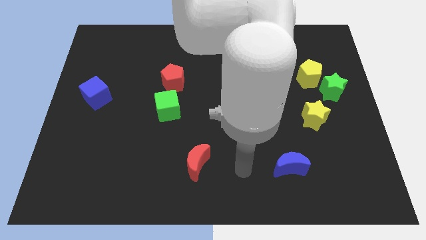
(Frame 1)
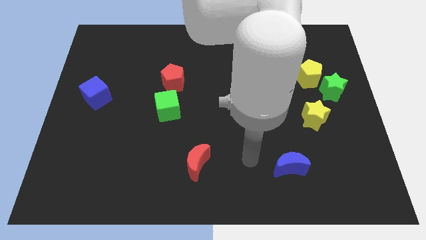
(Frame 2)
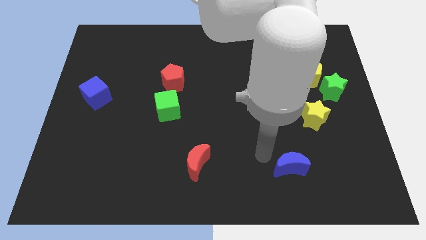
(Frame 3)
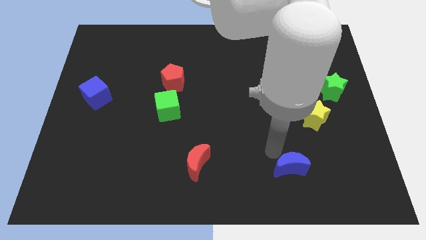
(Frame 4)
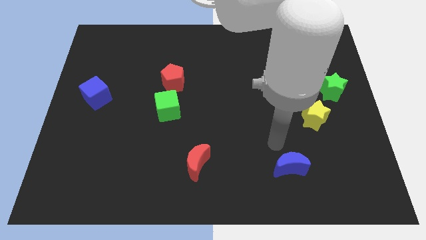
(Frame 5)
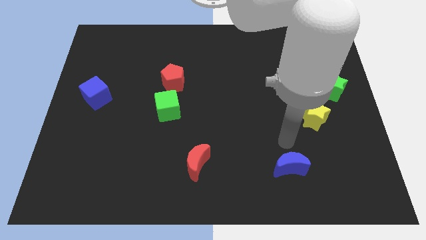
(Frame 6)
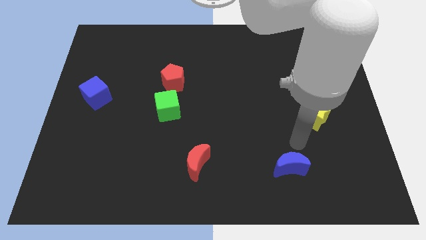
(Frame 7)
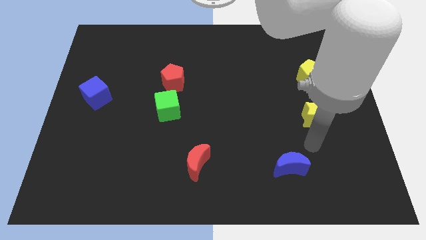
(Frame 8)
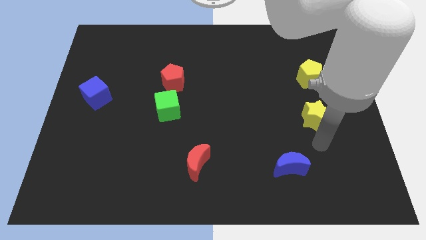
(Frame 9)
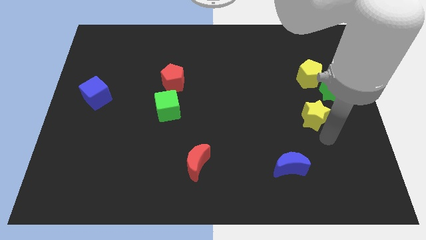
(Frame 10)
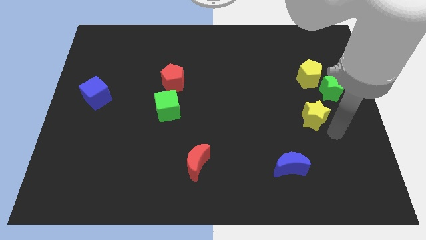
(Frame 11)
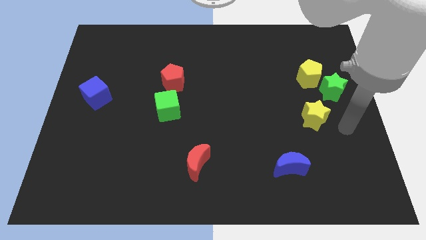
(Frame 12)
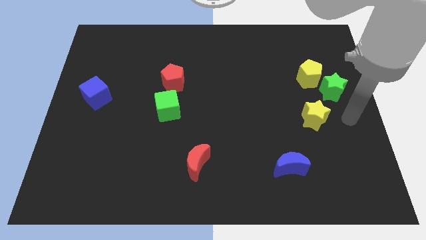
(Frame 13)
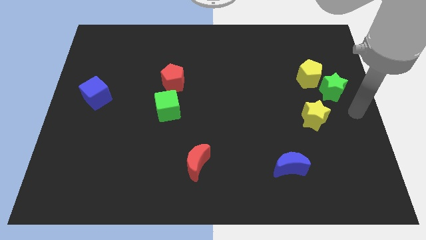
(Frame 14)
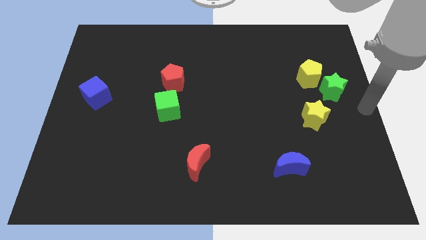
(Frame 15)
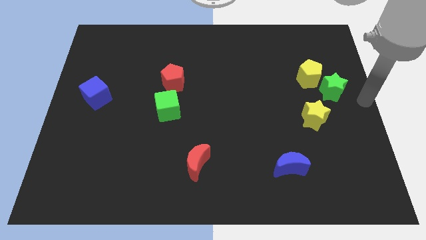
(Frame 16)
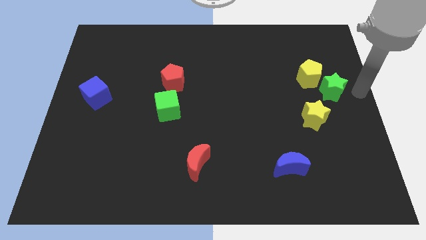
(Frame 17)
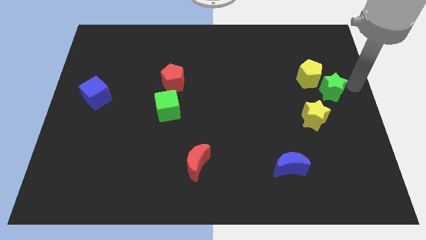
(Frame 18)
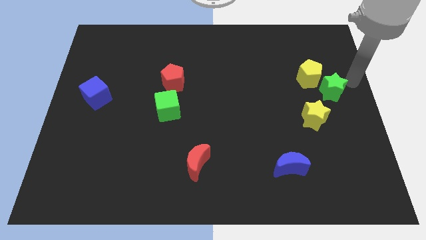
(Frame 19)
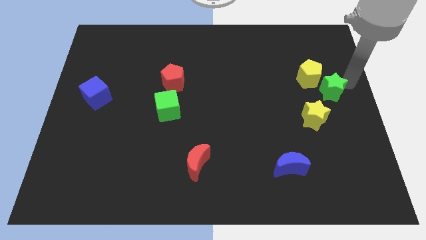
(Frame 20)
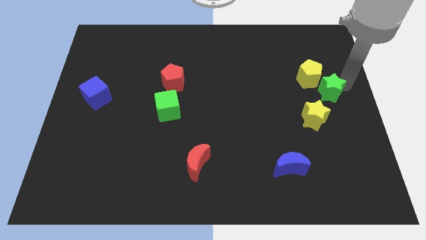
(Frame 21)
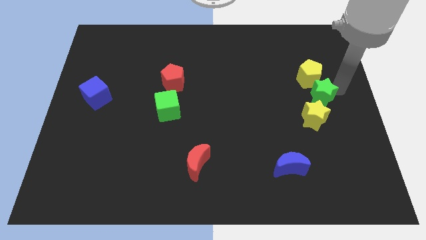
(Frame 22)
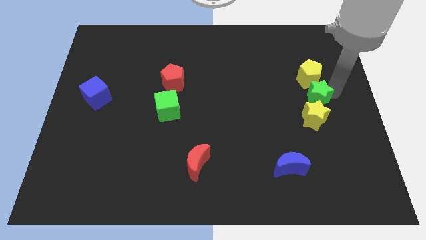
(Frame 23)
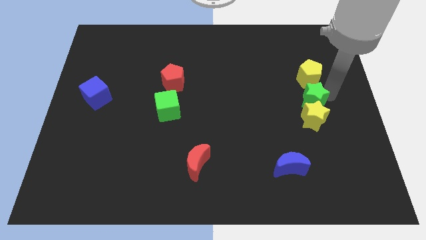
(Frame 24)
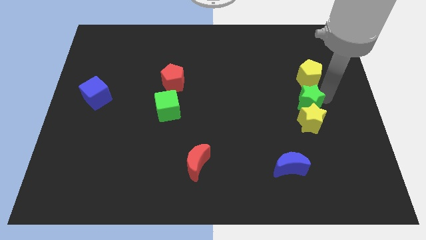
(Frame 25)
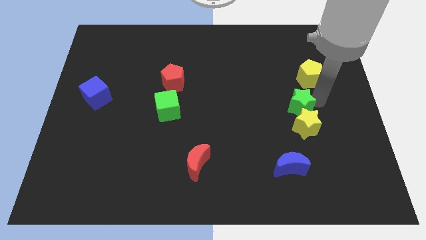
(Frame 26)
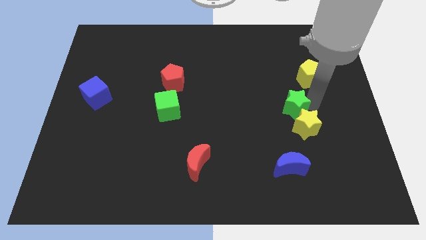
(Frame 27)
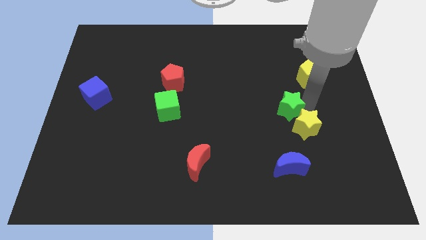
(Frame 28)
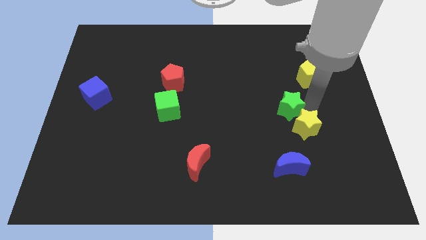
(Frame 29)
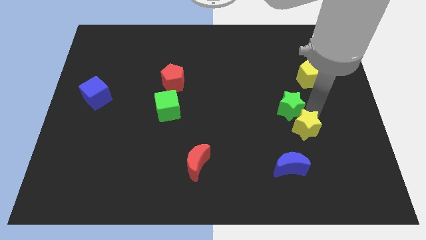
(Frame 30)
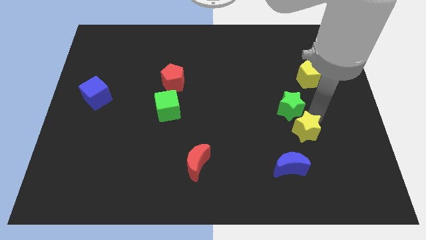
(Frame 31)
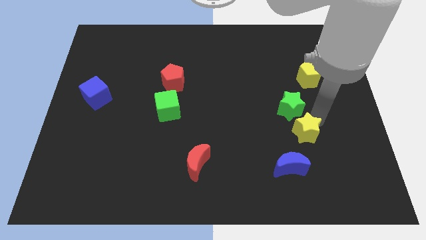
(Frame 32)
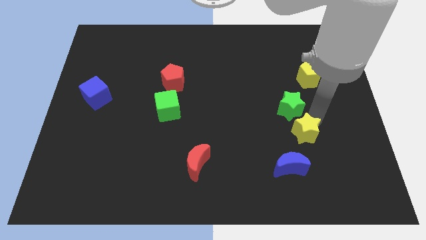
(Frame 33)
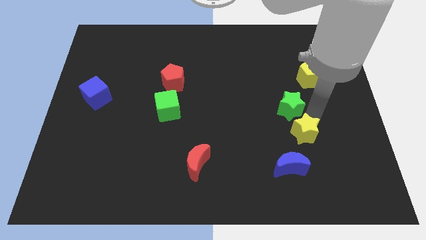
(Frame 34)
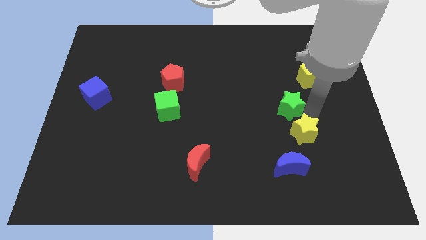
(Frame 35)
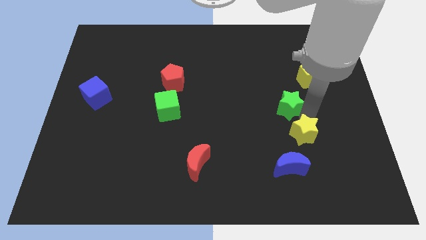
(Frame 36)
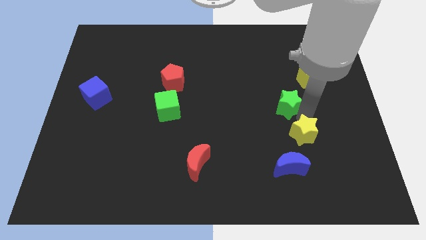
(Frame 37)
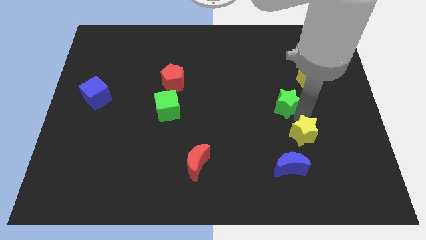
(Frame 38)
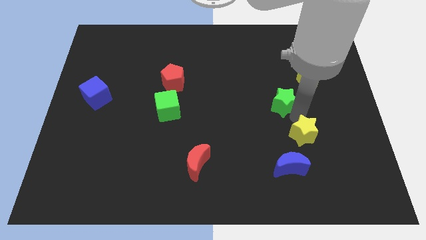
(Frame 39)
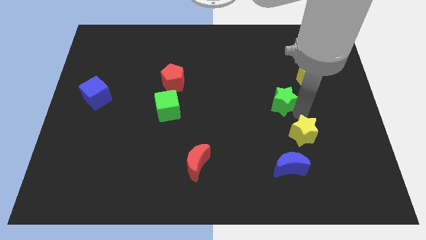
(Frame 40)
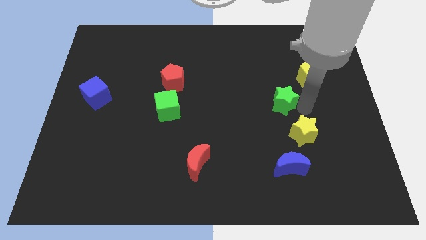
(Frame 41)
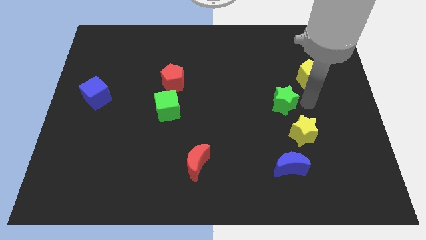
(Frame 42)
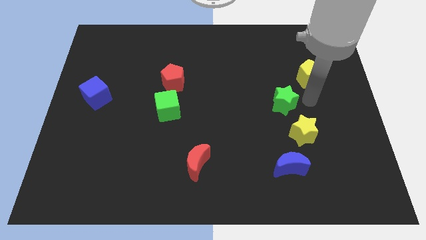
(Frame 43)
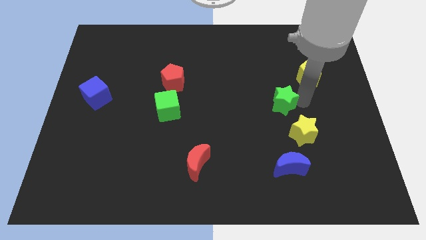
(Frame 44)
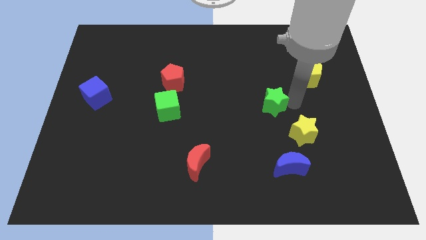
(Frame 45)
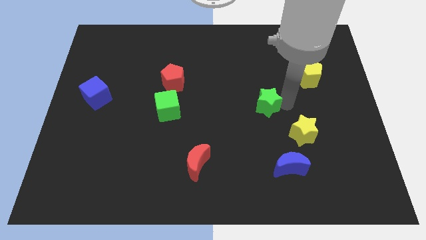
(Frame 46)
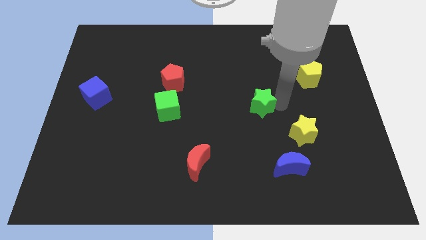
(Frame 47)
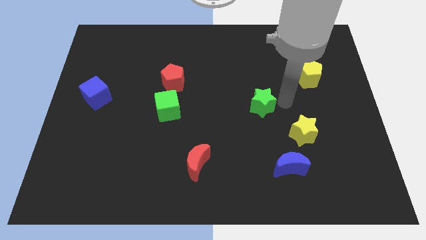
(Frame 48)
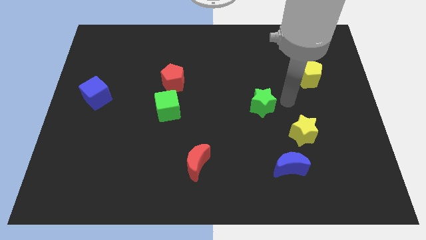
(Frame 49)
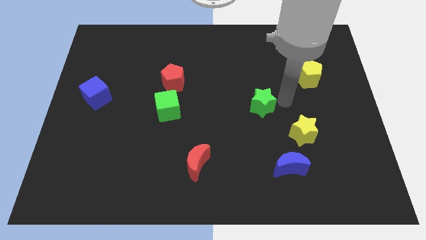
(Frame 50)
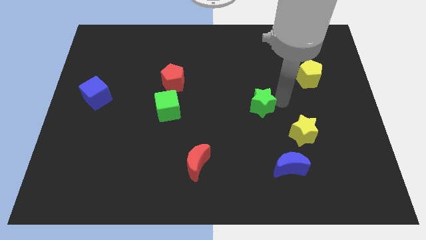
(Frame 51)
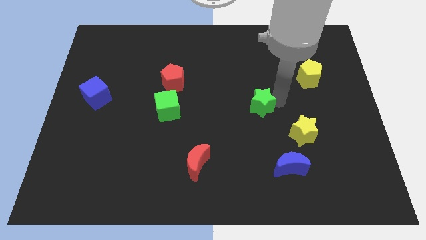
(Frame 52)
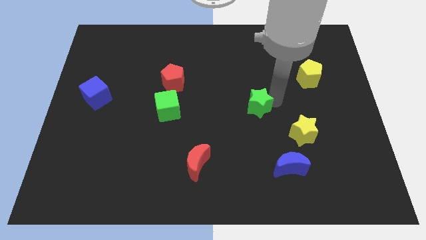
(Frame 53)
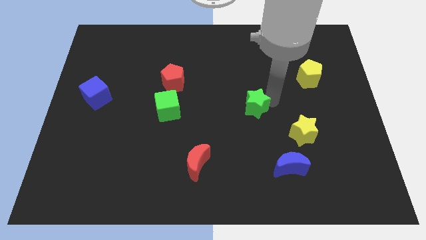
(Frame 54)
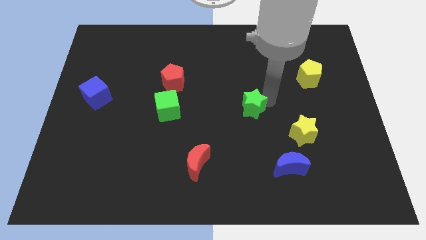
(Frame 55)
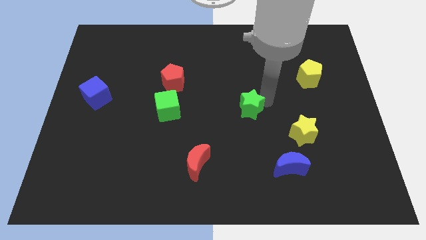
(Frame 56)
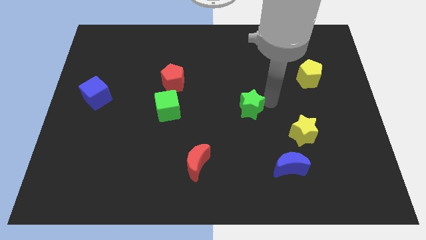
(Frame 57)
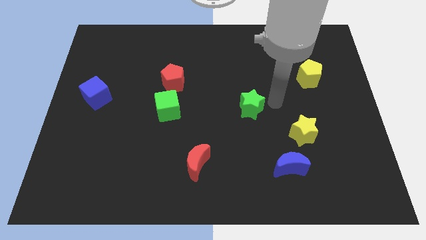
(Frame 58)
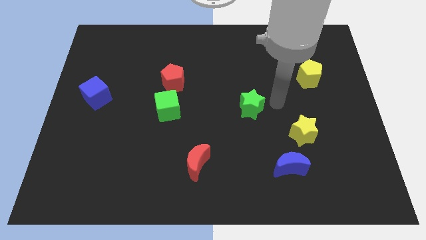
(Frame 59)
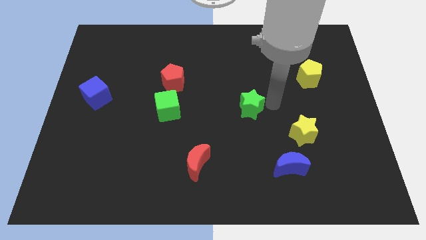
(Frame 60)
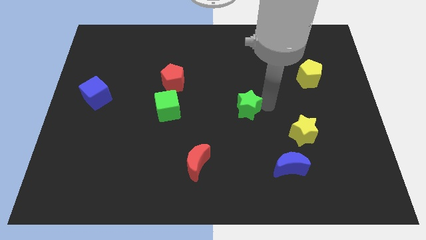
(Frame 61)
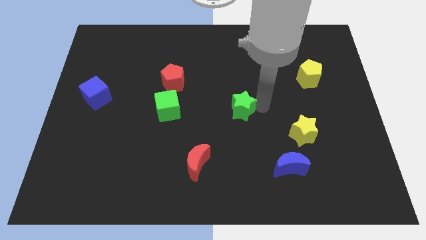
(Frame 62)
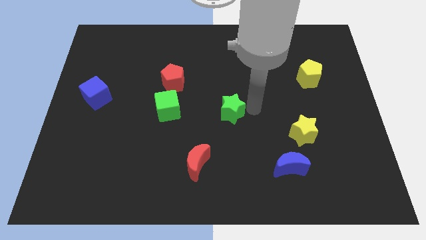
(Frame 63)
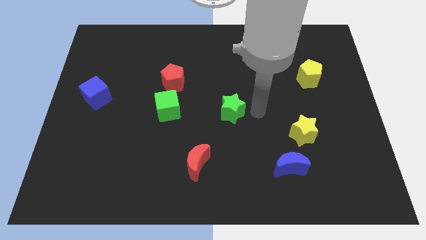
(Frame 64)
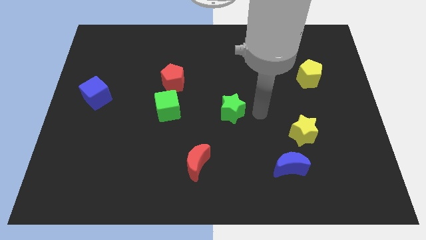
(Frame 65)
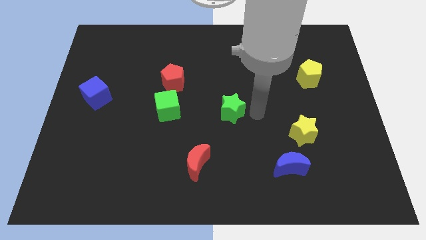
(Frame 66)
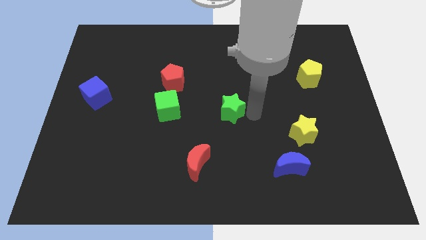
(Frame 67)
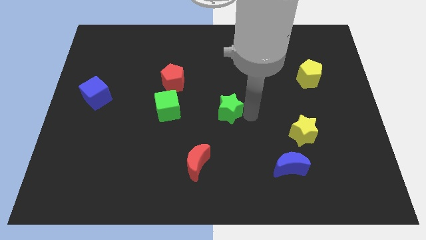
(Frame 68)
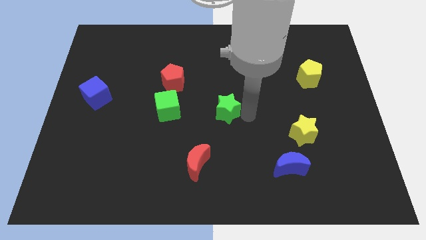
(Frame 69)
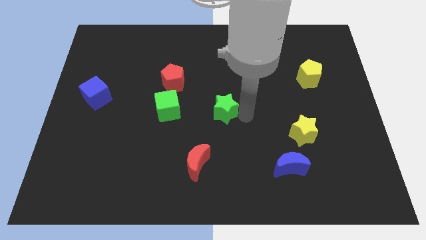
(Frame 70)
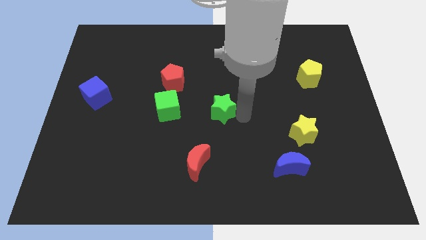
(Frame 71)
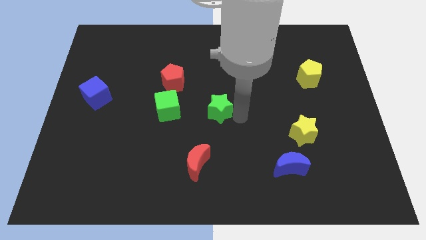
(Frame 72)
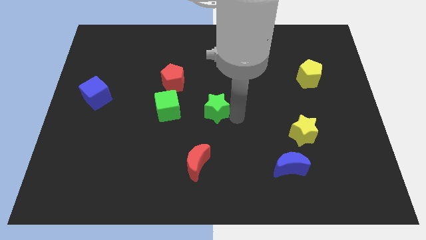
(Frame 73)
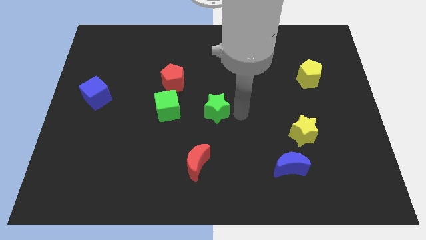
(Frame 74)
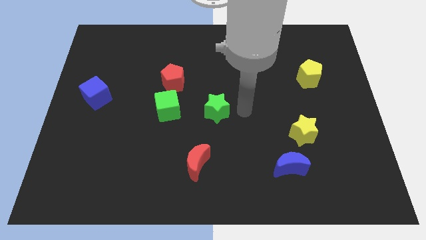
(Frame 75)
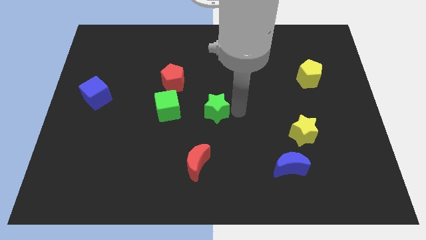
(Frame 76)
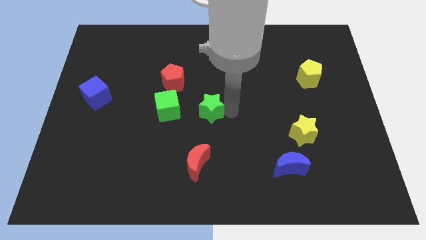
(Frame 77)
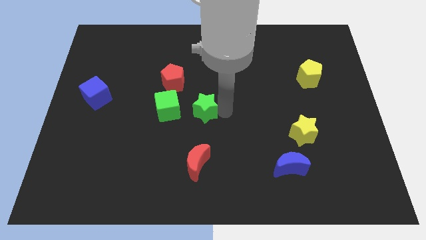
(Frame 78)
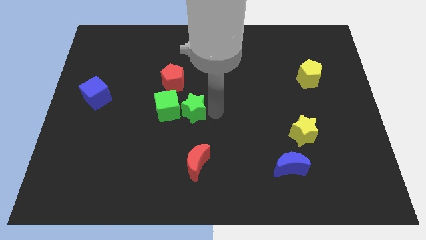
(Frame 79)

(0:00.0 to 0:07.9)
move the green star to the green cube
